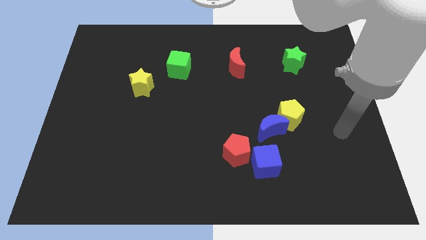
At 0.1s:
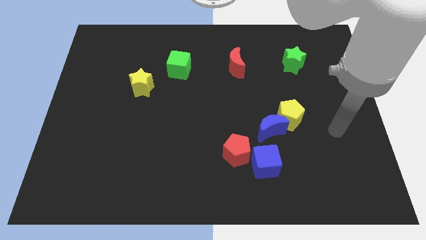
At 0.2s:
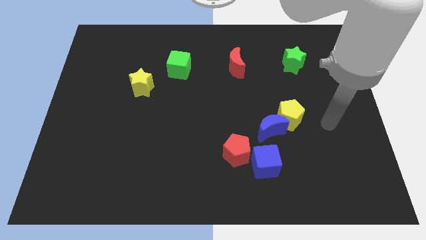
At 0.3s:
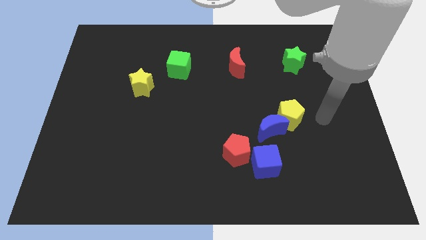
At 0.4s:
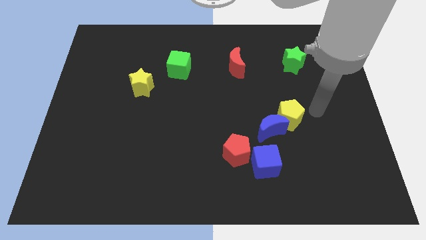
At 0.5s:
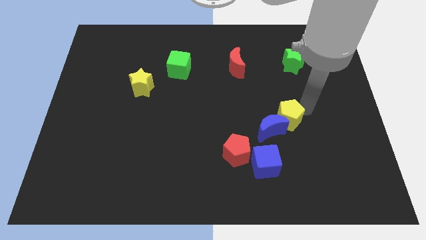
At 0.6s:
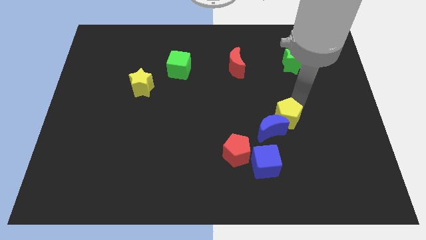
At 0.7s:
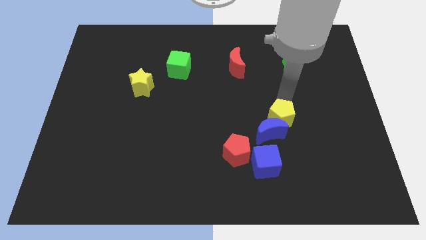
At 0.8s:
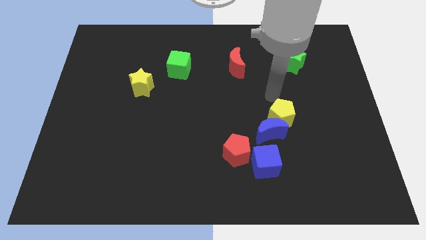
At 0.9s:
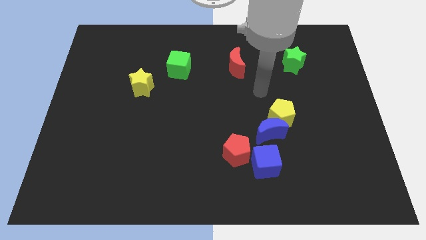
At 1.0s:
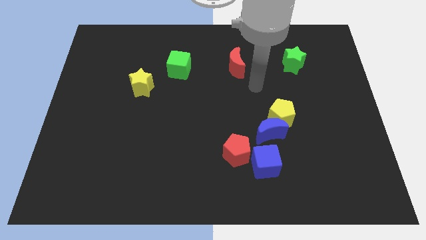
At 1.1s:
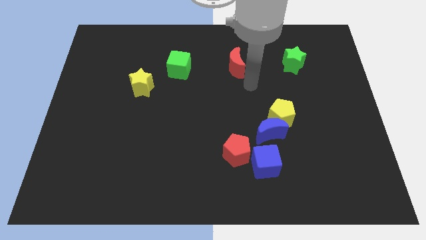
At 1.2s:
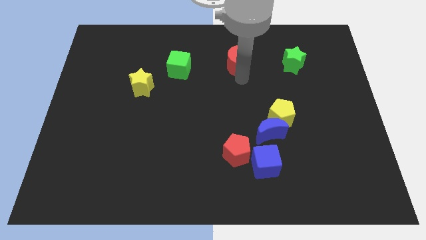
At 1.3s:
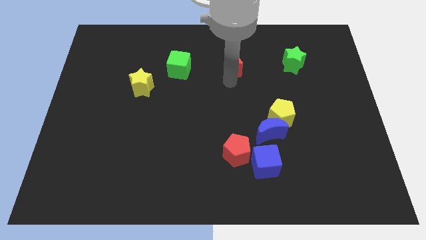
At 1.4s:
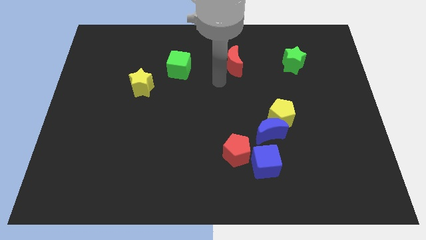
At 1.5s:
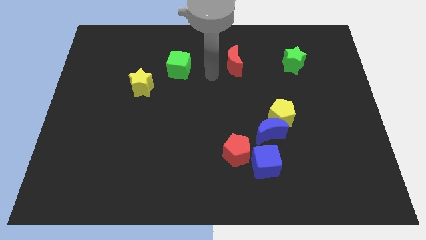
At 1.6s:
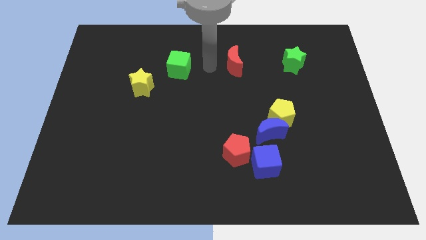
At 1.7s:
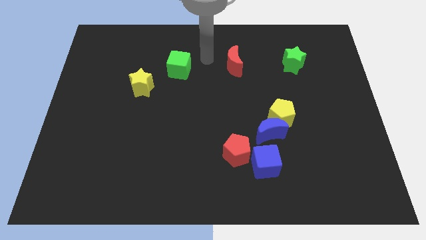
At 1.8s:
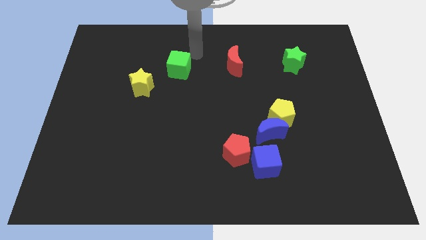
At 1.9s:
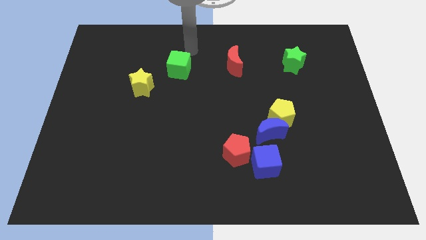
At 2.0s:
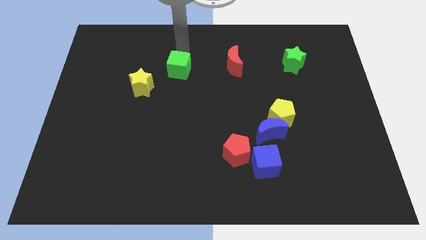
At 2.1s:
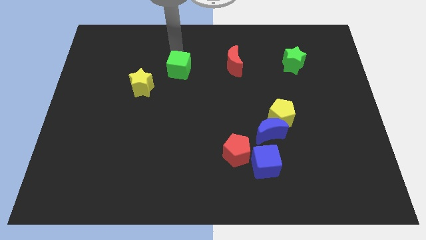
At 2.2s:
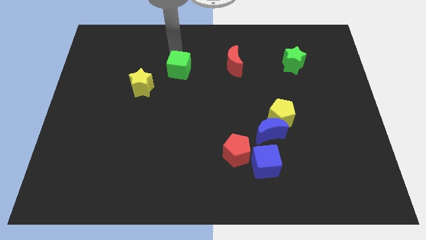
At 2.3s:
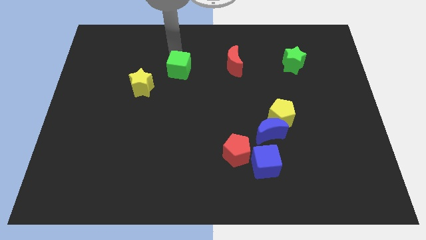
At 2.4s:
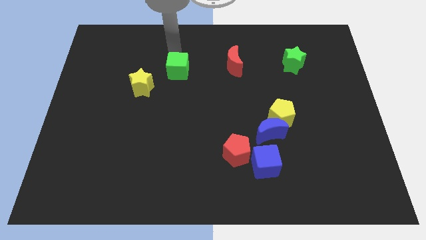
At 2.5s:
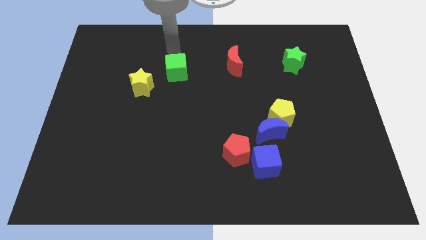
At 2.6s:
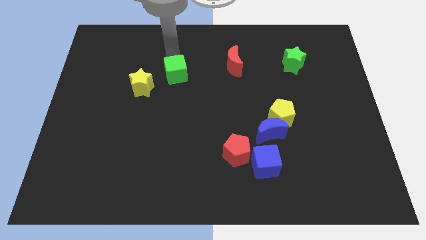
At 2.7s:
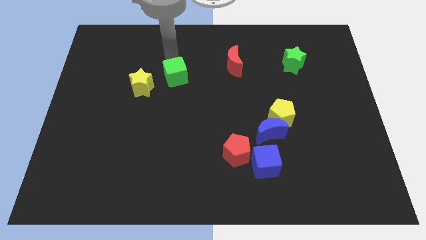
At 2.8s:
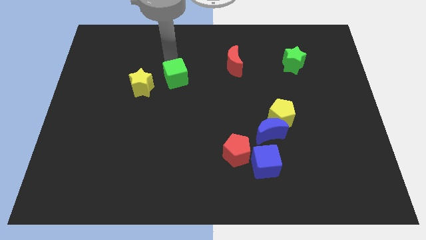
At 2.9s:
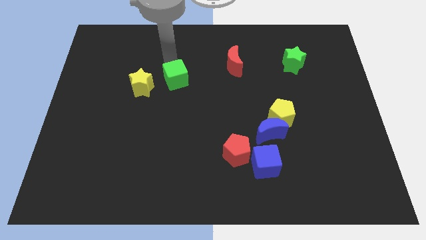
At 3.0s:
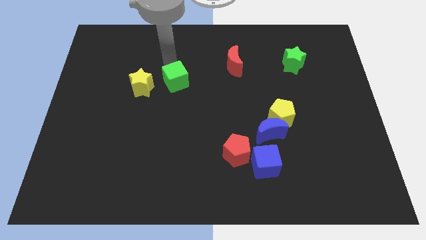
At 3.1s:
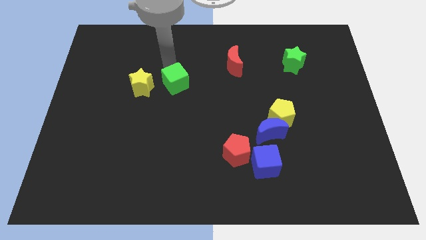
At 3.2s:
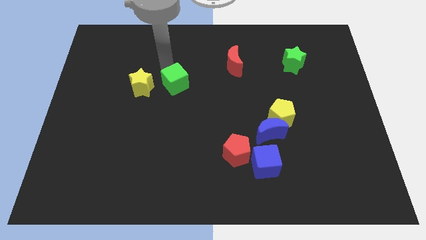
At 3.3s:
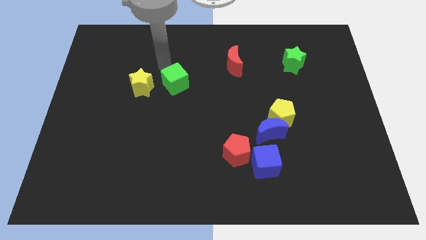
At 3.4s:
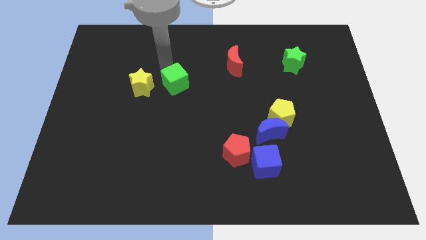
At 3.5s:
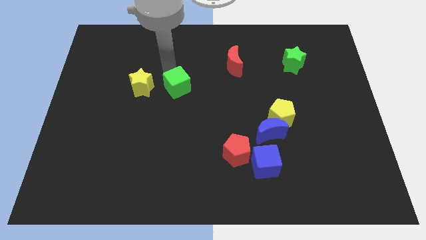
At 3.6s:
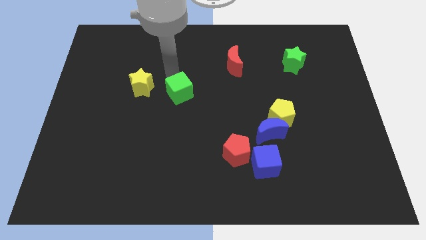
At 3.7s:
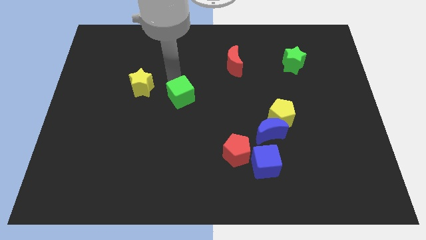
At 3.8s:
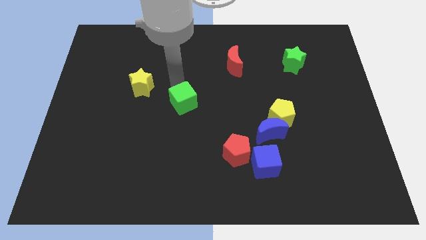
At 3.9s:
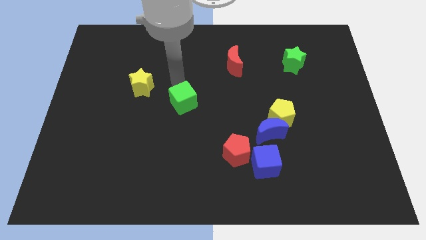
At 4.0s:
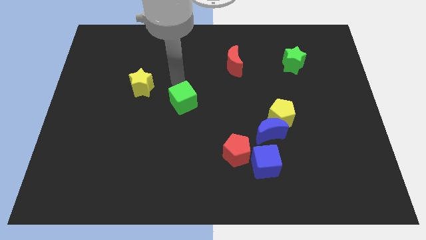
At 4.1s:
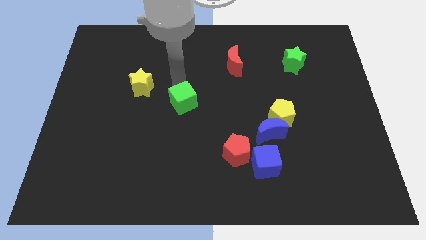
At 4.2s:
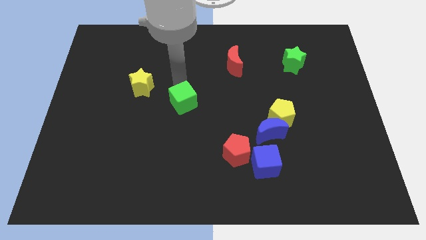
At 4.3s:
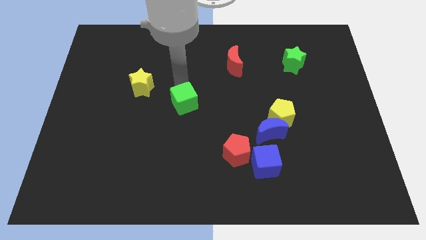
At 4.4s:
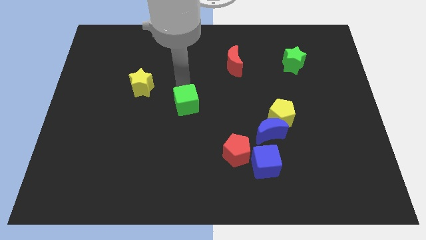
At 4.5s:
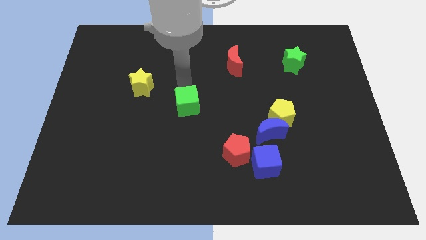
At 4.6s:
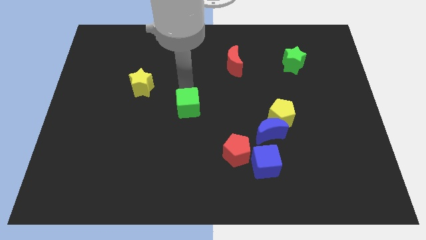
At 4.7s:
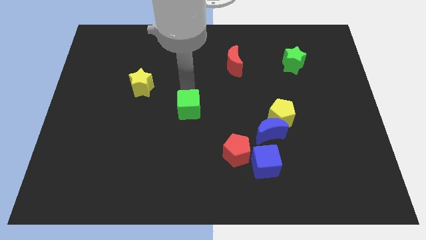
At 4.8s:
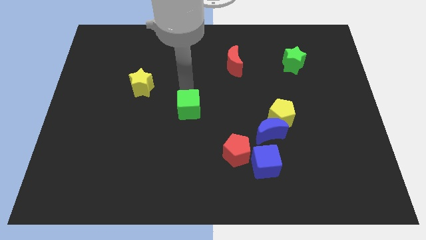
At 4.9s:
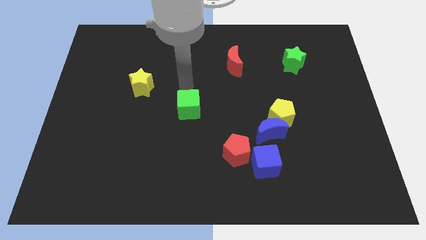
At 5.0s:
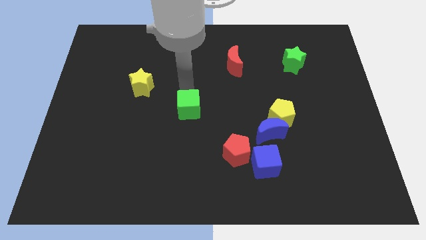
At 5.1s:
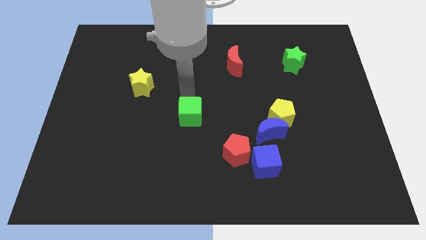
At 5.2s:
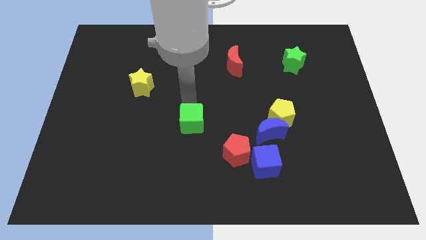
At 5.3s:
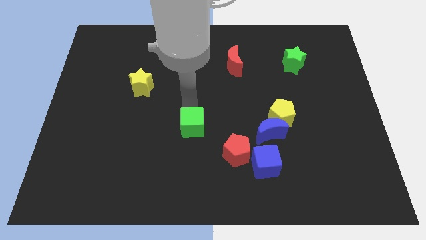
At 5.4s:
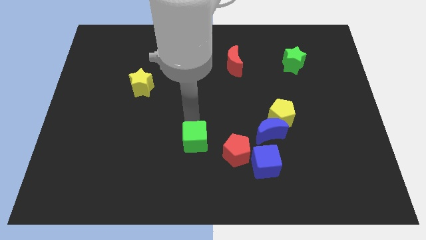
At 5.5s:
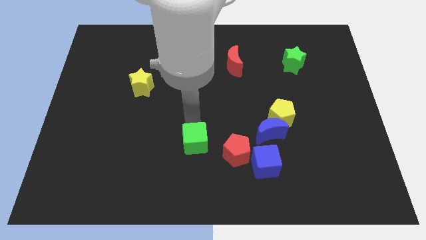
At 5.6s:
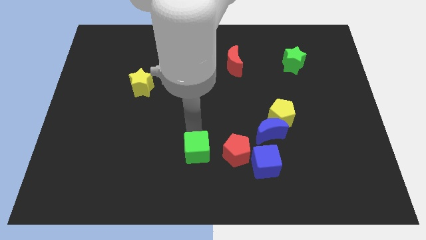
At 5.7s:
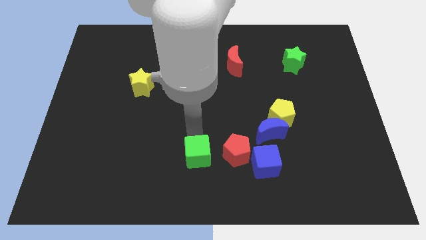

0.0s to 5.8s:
move the green cube to the bottom side
